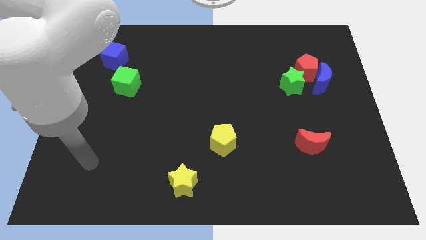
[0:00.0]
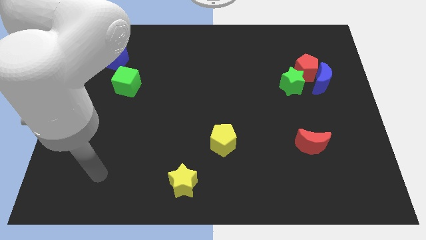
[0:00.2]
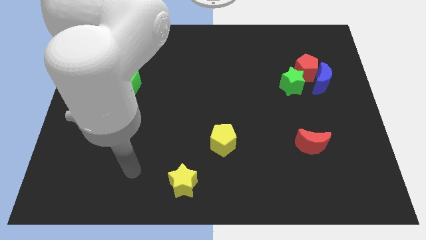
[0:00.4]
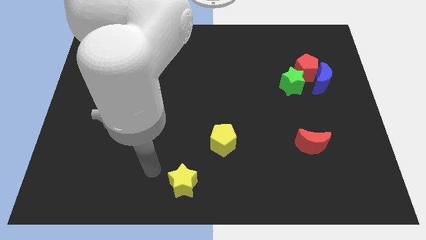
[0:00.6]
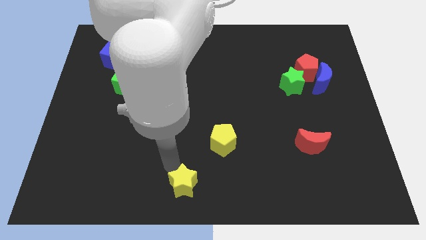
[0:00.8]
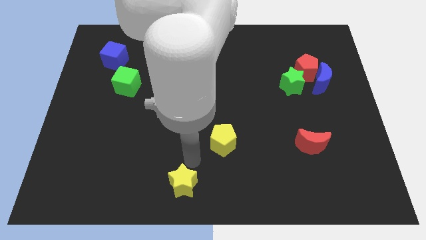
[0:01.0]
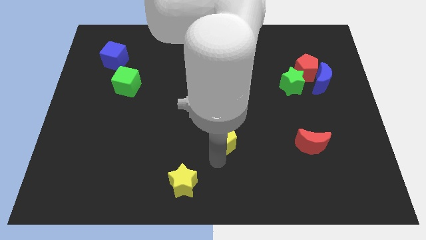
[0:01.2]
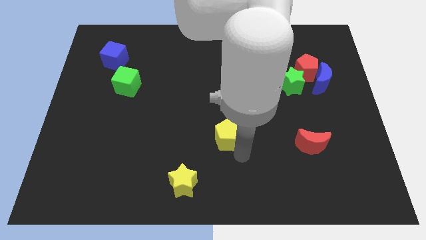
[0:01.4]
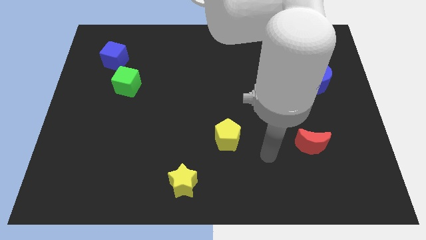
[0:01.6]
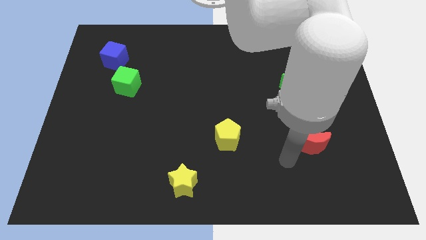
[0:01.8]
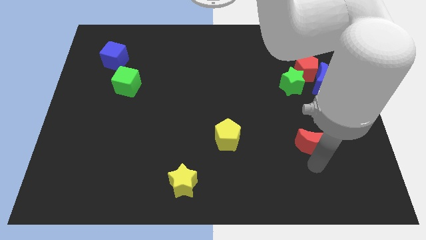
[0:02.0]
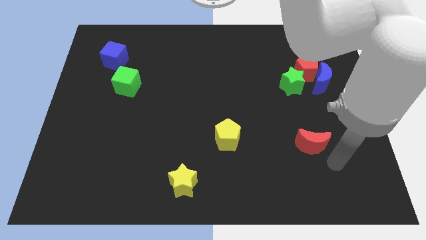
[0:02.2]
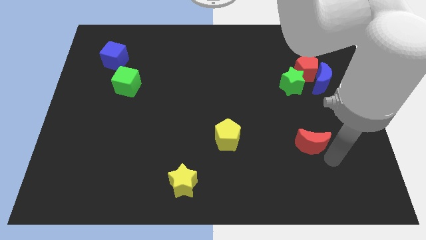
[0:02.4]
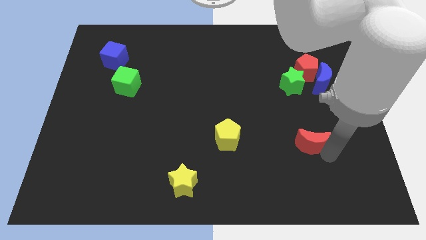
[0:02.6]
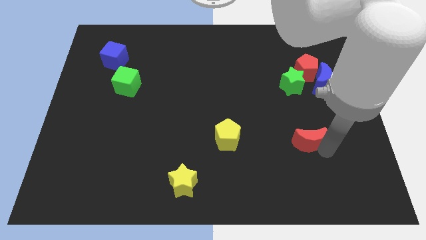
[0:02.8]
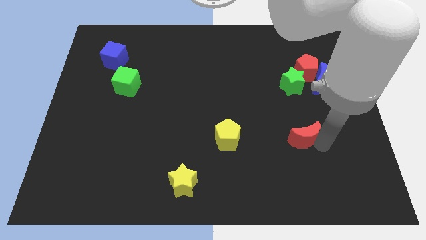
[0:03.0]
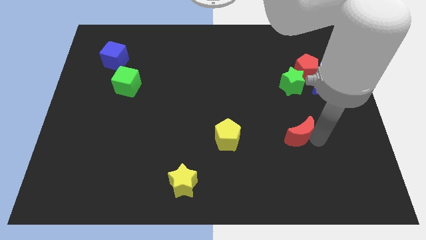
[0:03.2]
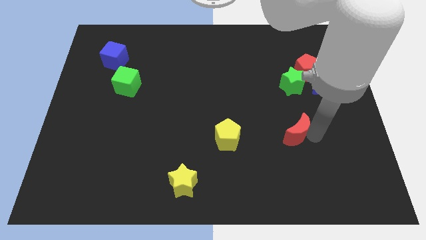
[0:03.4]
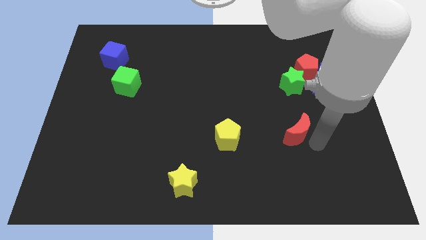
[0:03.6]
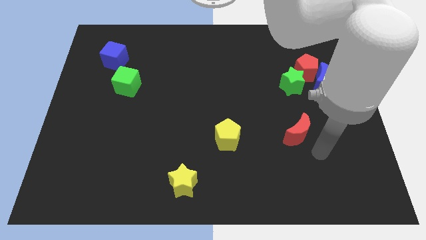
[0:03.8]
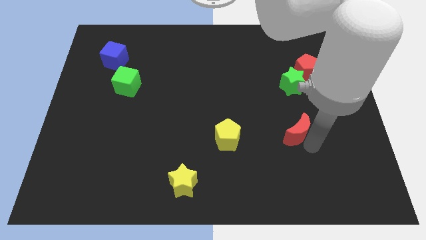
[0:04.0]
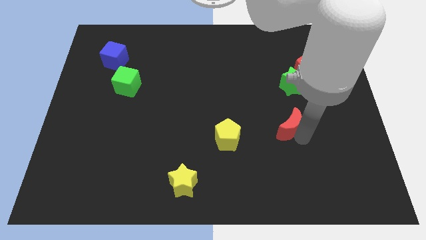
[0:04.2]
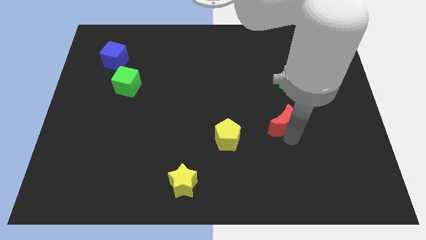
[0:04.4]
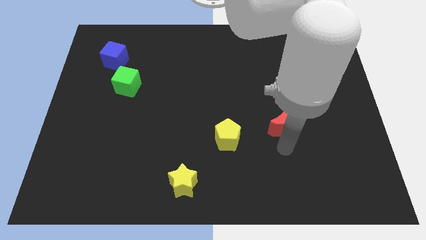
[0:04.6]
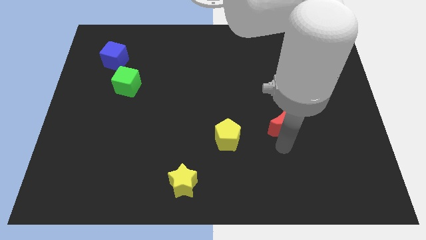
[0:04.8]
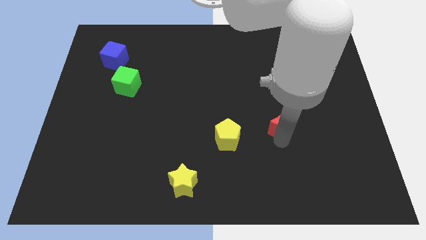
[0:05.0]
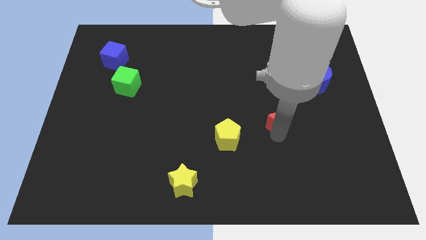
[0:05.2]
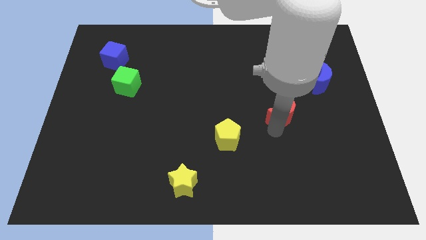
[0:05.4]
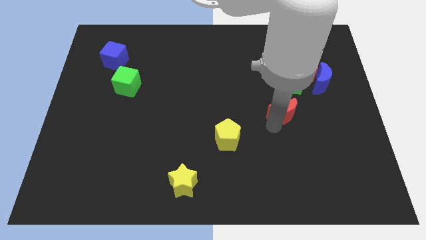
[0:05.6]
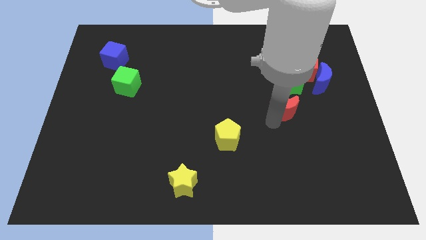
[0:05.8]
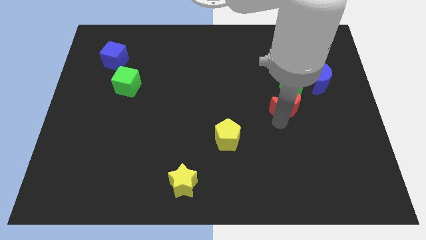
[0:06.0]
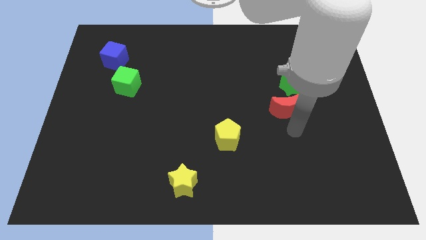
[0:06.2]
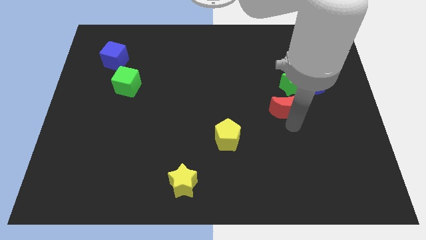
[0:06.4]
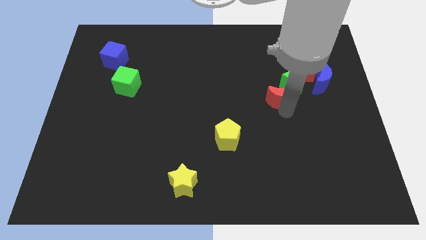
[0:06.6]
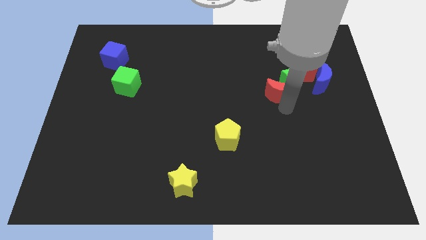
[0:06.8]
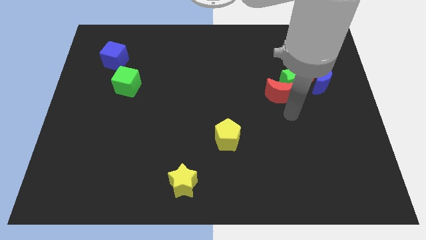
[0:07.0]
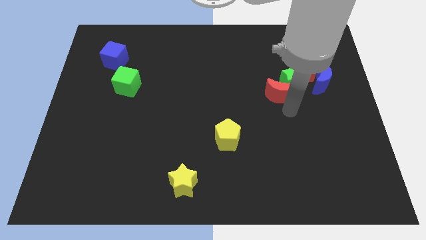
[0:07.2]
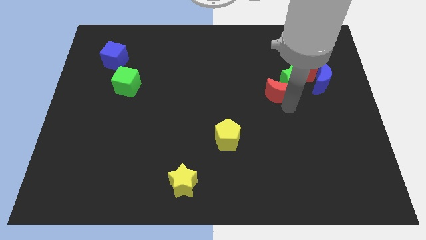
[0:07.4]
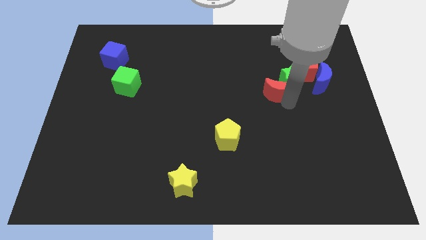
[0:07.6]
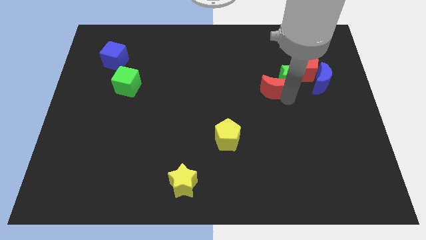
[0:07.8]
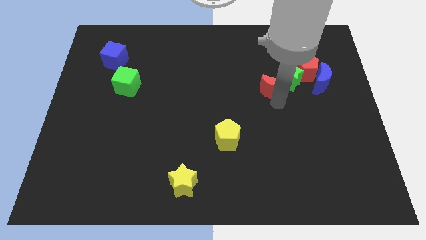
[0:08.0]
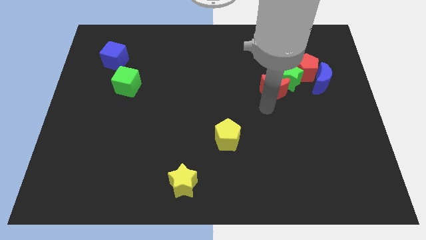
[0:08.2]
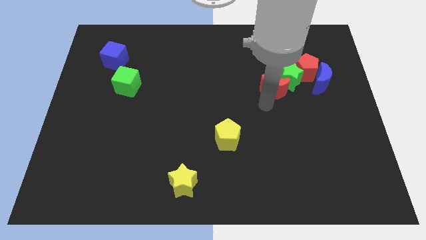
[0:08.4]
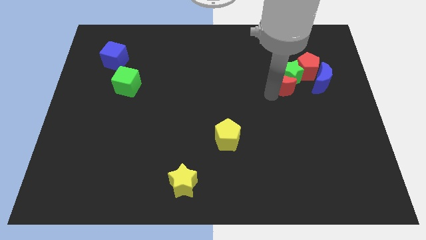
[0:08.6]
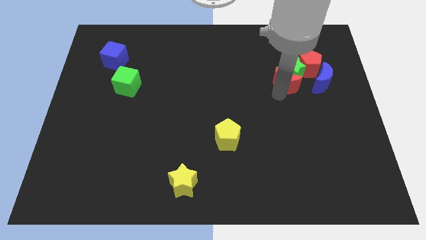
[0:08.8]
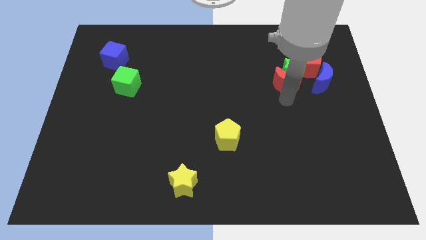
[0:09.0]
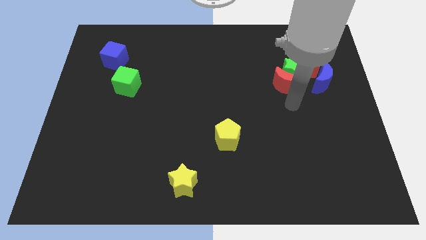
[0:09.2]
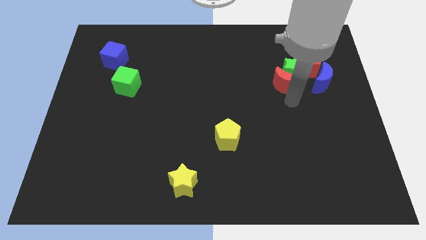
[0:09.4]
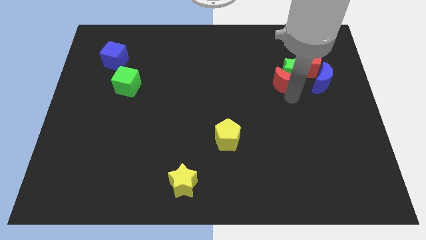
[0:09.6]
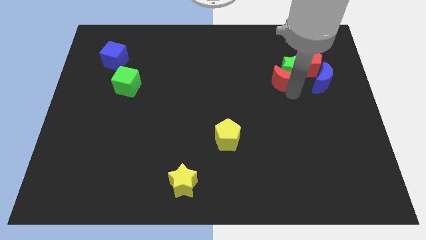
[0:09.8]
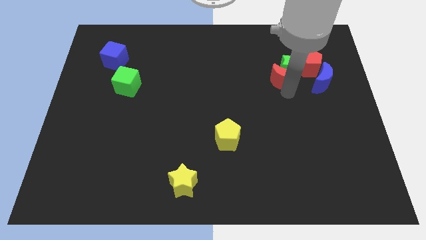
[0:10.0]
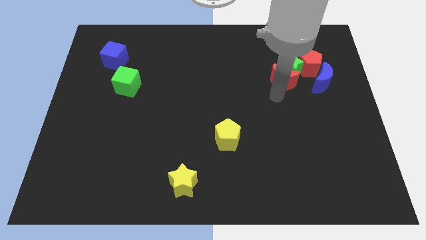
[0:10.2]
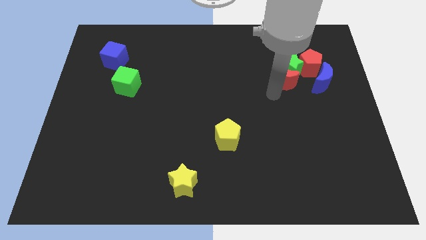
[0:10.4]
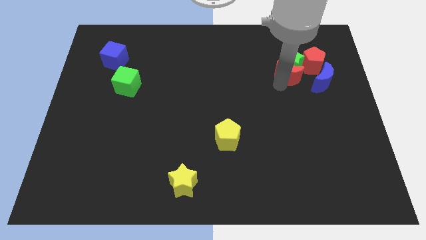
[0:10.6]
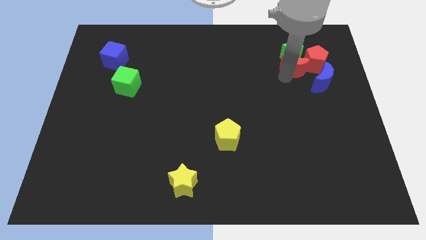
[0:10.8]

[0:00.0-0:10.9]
slide the red moon towards the red pentagon
